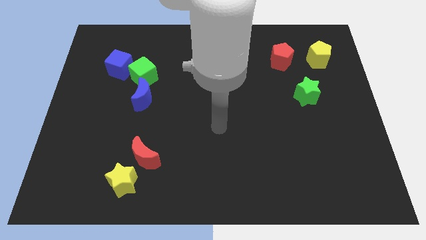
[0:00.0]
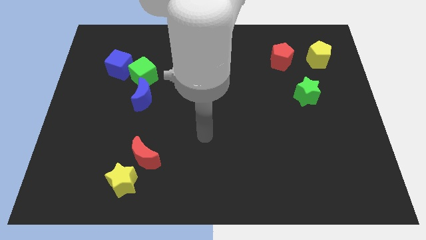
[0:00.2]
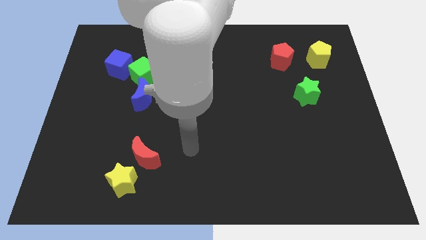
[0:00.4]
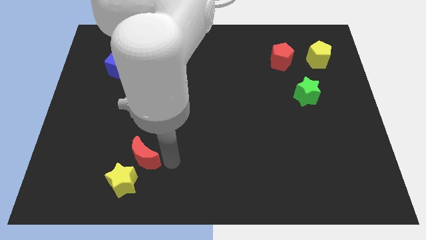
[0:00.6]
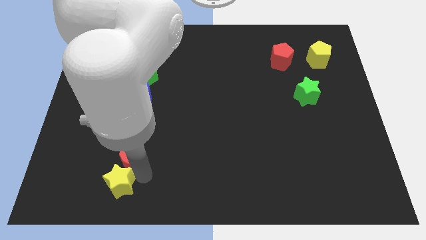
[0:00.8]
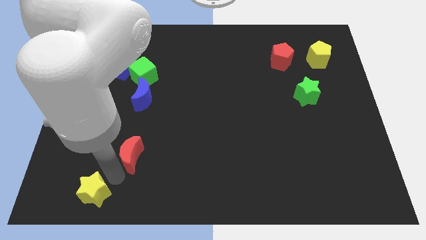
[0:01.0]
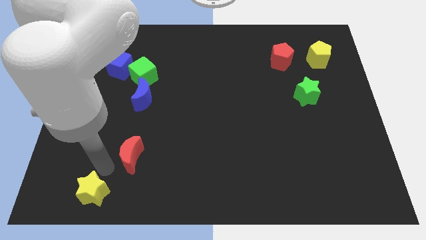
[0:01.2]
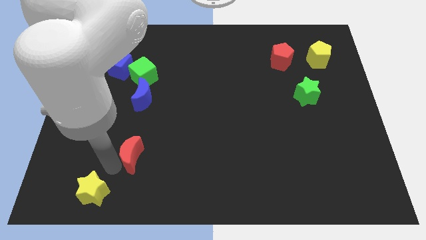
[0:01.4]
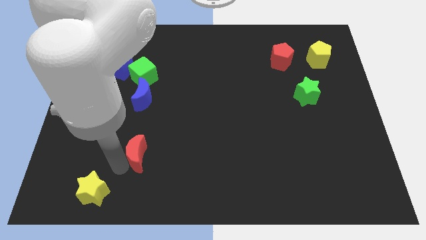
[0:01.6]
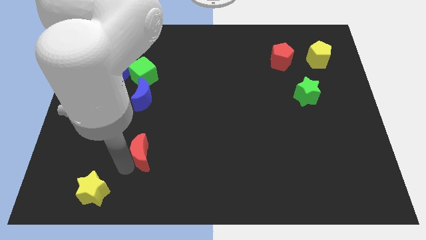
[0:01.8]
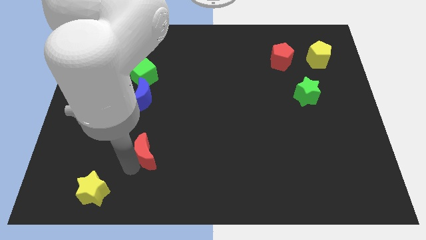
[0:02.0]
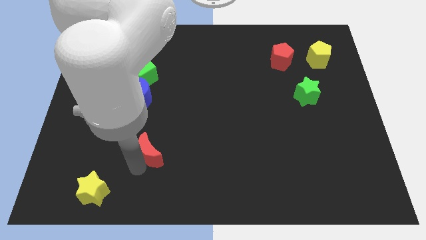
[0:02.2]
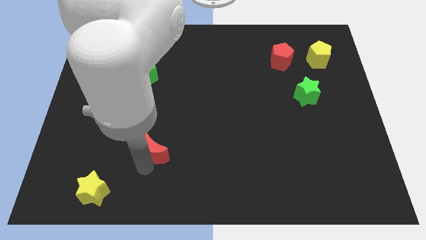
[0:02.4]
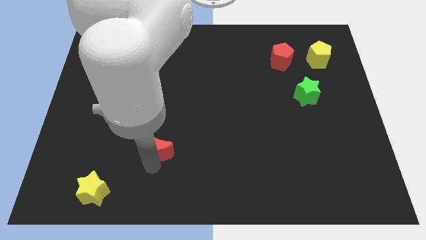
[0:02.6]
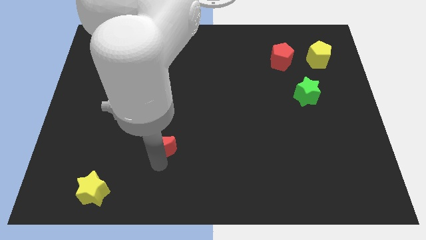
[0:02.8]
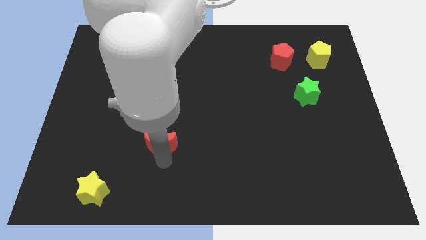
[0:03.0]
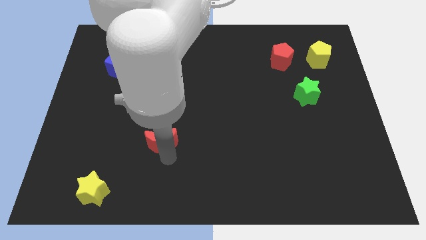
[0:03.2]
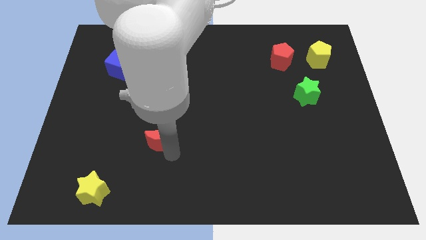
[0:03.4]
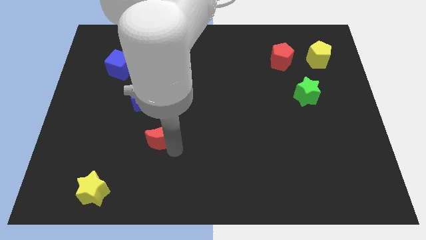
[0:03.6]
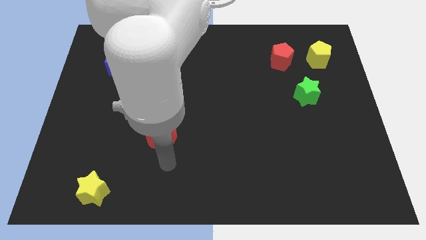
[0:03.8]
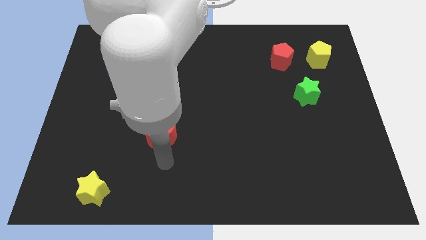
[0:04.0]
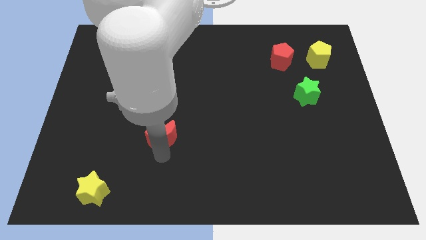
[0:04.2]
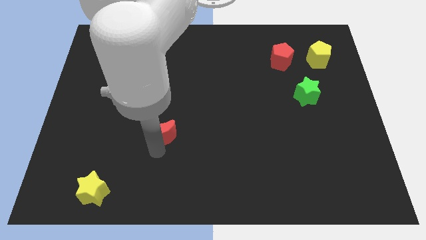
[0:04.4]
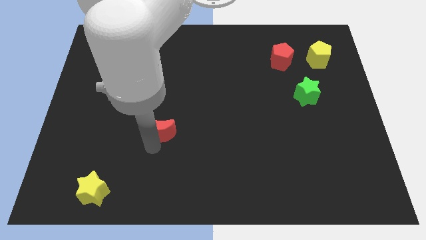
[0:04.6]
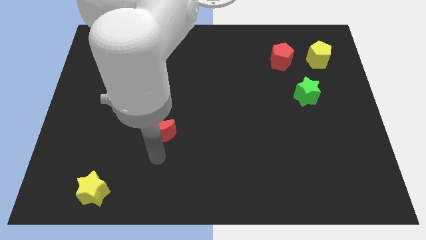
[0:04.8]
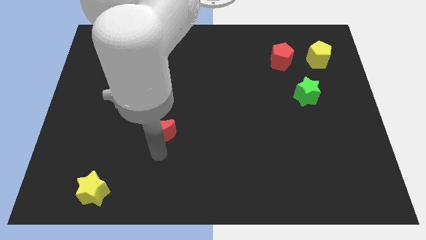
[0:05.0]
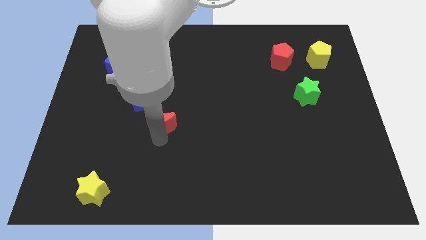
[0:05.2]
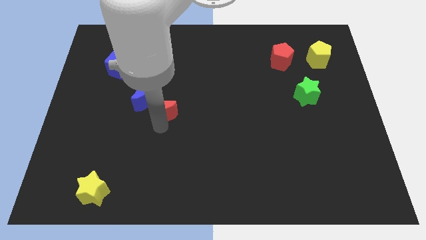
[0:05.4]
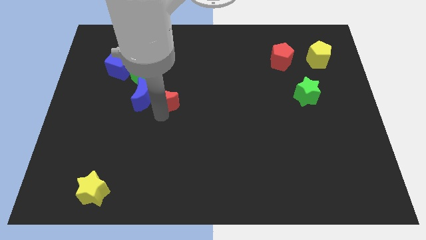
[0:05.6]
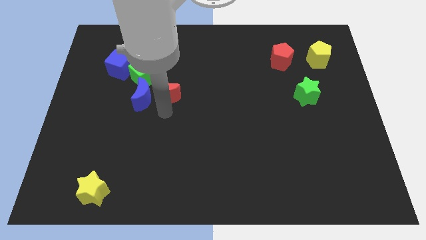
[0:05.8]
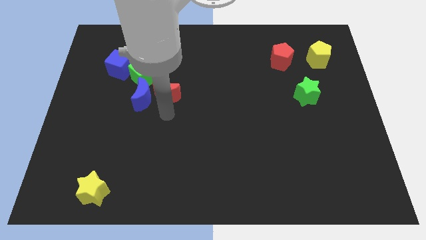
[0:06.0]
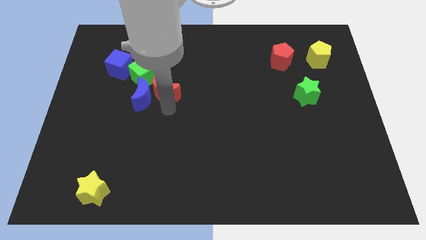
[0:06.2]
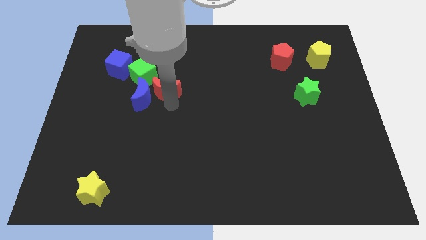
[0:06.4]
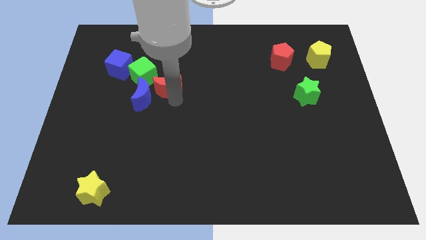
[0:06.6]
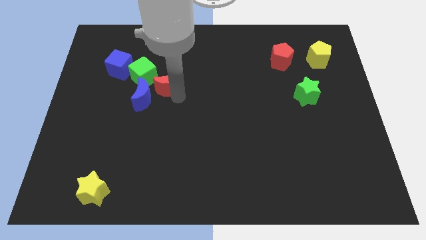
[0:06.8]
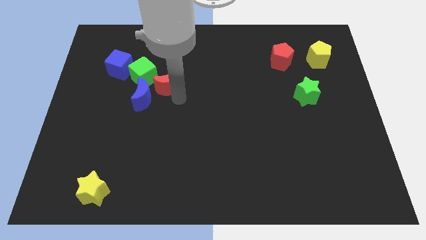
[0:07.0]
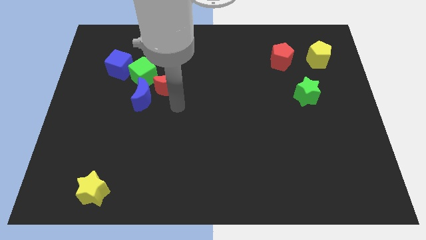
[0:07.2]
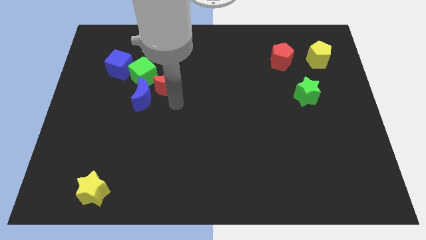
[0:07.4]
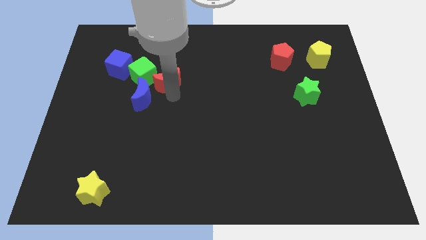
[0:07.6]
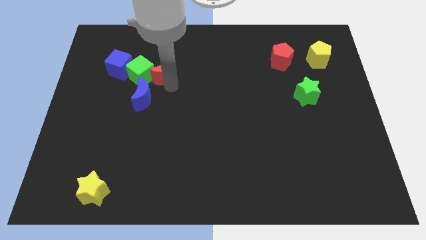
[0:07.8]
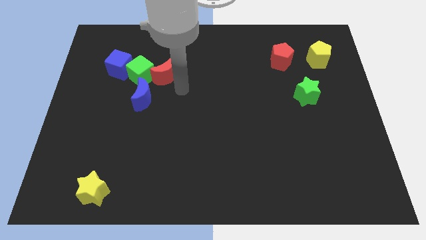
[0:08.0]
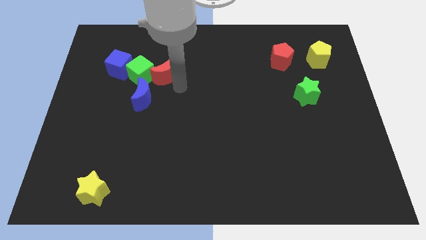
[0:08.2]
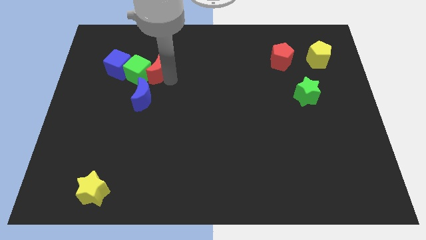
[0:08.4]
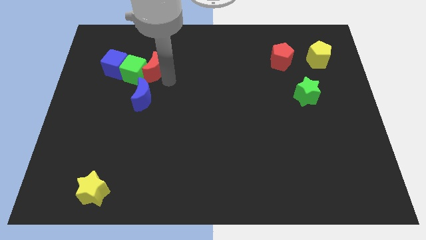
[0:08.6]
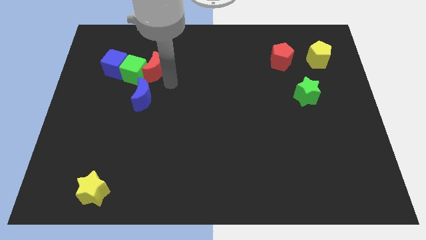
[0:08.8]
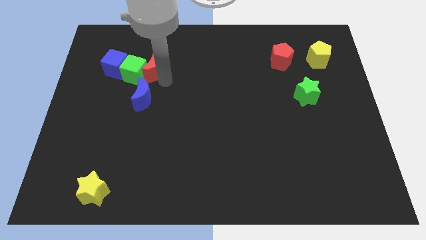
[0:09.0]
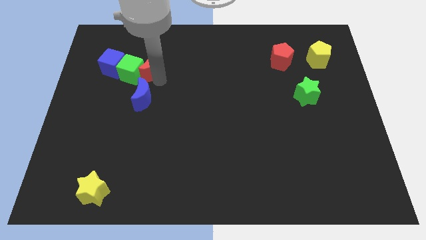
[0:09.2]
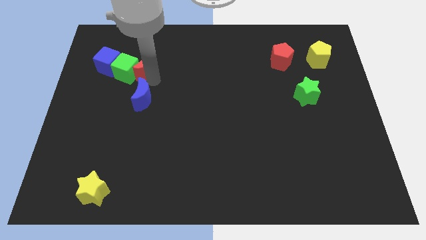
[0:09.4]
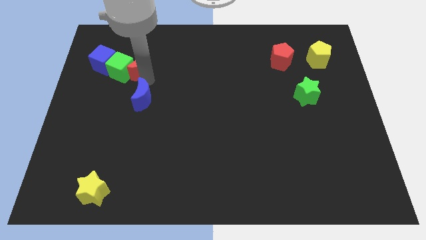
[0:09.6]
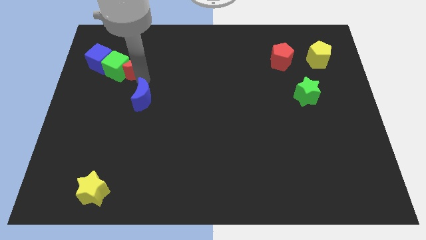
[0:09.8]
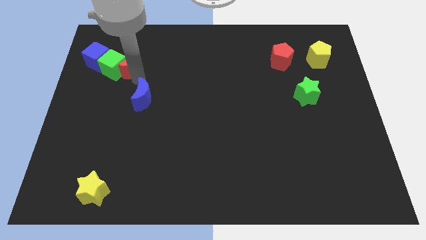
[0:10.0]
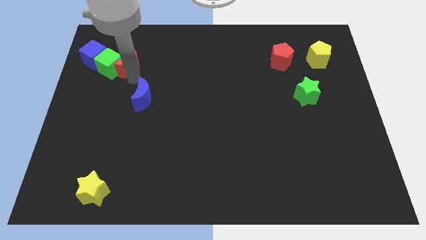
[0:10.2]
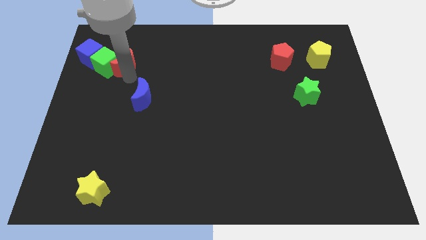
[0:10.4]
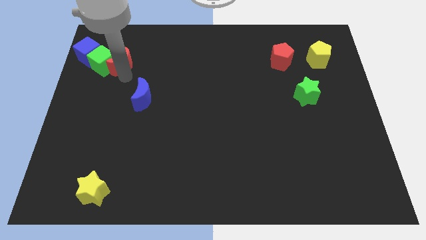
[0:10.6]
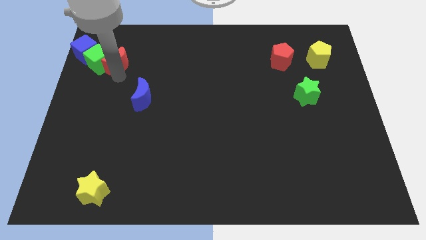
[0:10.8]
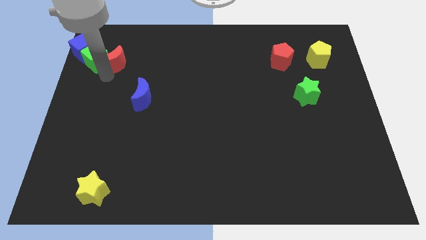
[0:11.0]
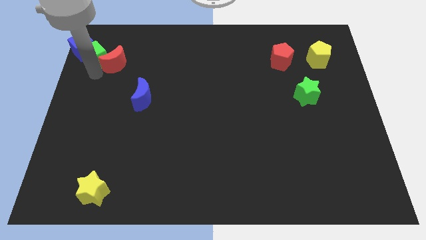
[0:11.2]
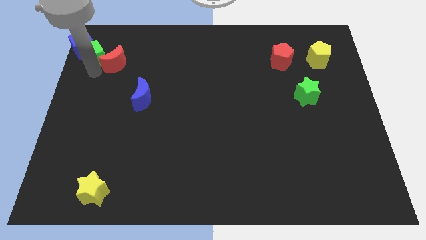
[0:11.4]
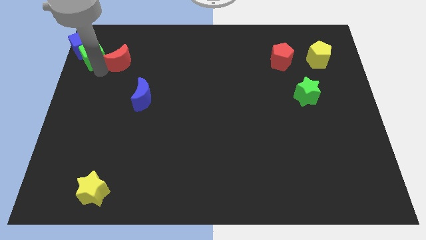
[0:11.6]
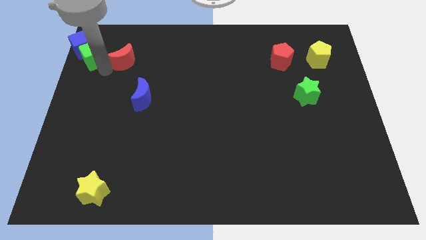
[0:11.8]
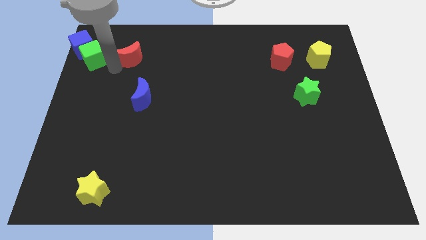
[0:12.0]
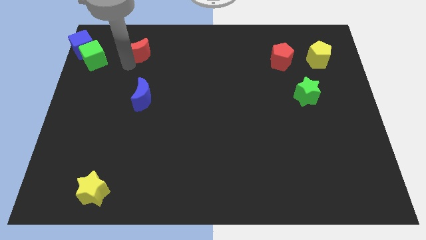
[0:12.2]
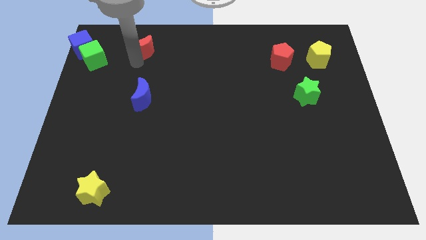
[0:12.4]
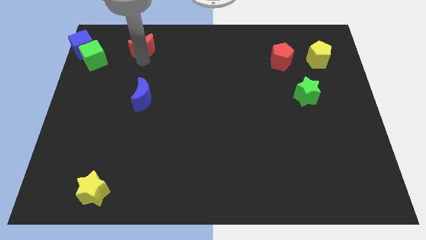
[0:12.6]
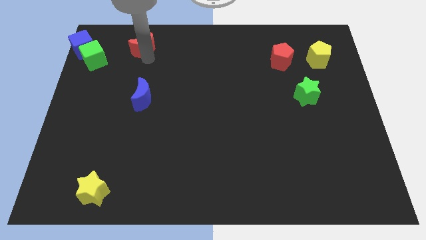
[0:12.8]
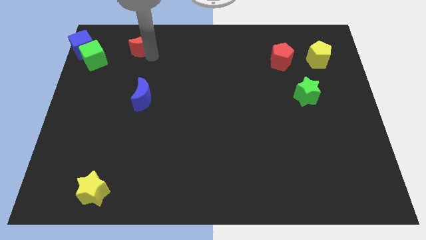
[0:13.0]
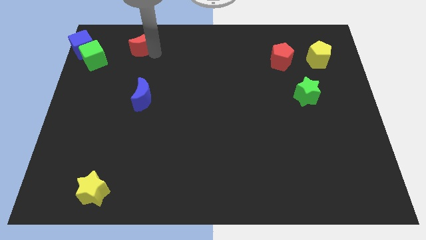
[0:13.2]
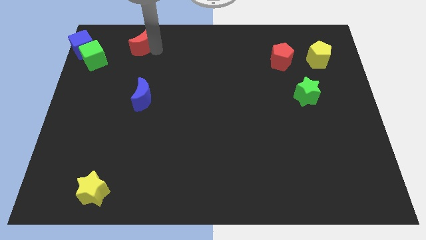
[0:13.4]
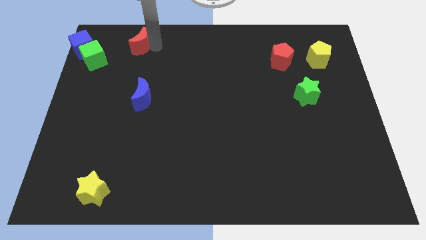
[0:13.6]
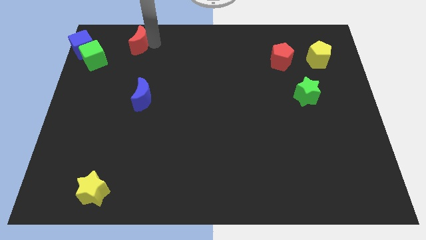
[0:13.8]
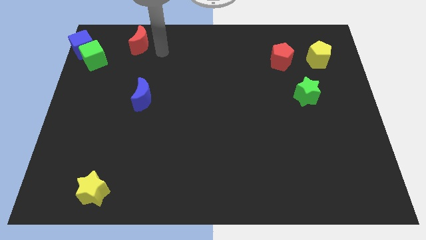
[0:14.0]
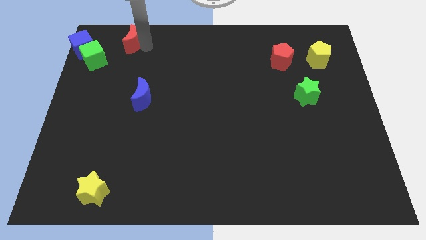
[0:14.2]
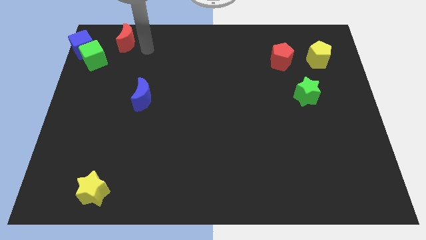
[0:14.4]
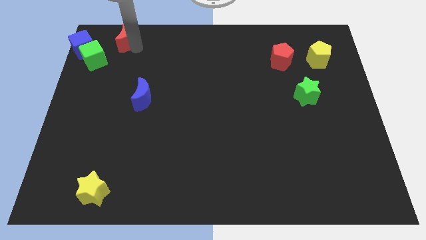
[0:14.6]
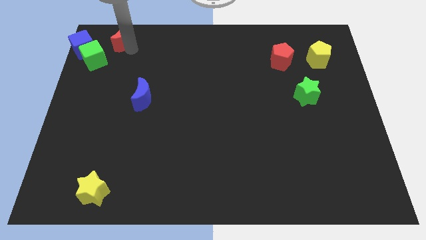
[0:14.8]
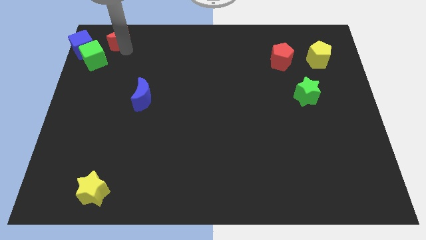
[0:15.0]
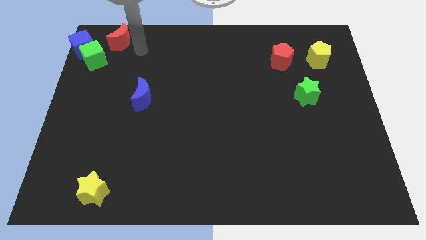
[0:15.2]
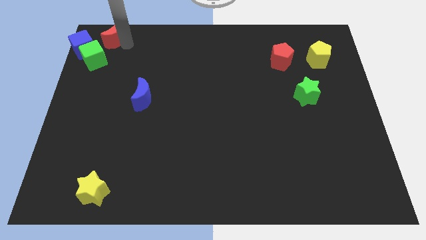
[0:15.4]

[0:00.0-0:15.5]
move the red moon to the top left of the board
